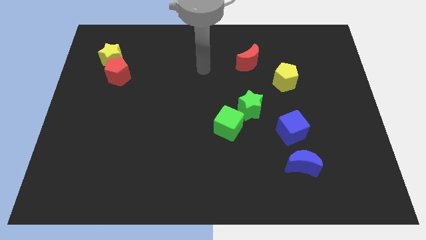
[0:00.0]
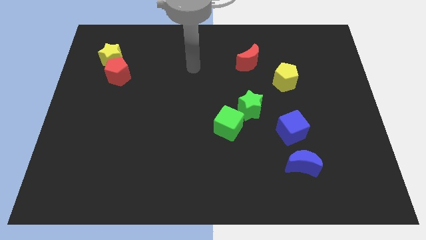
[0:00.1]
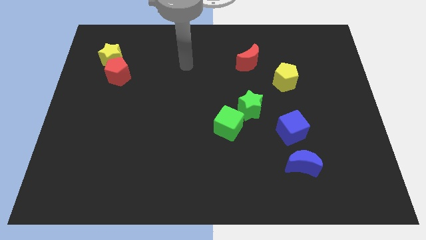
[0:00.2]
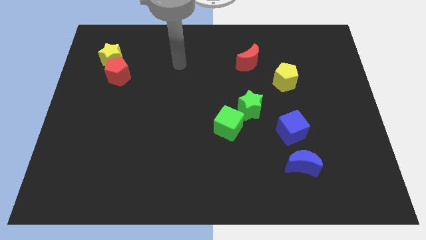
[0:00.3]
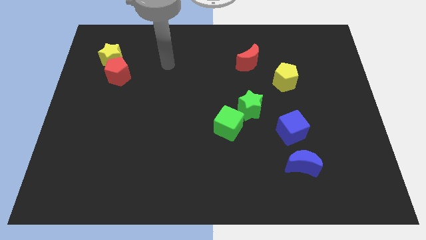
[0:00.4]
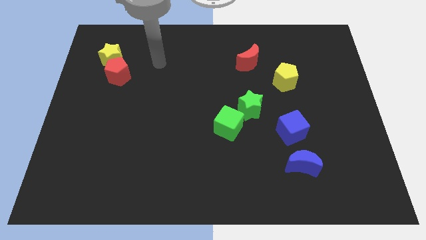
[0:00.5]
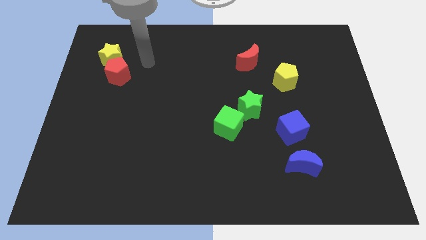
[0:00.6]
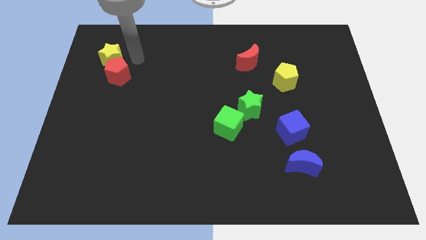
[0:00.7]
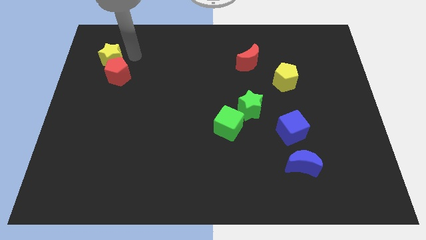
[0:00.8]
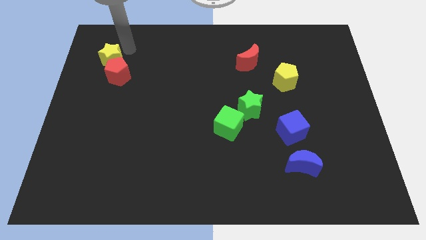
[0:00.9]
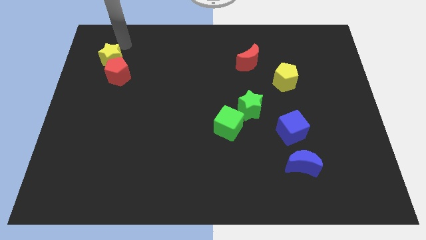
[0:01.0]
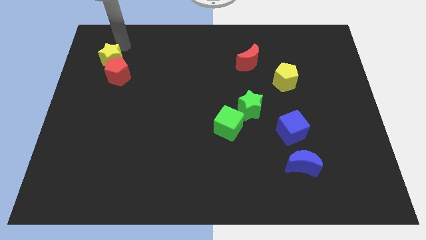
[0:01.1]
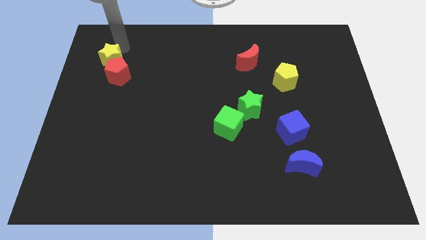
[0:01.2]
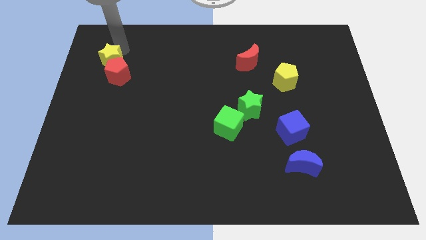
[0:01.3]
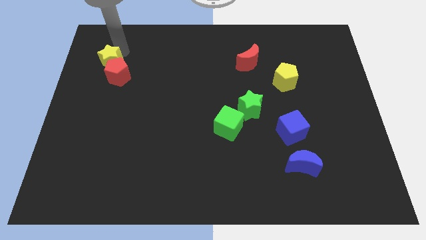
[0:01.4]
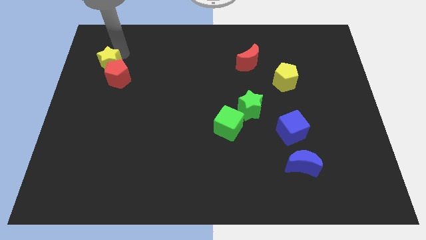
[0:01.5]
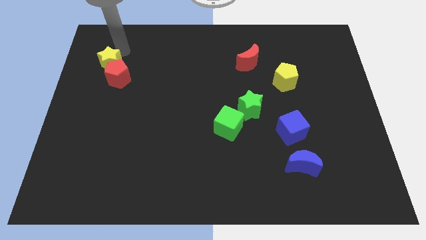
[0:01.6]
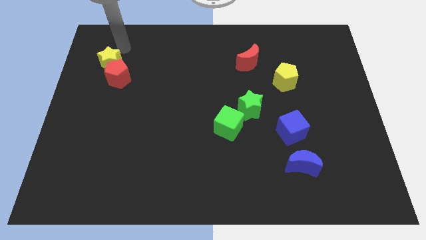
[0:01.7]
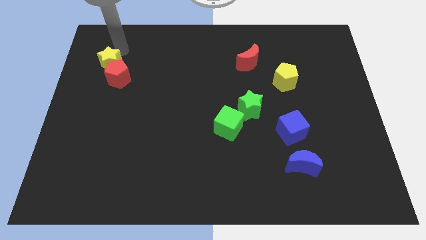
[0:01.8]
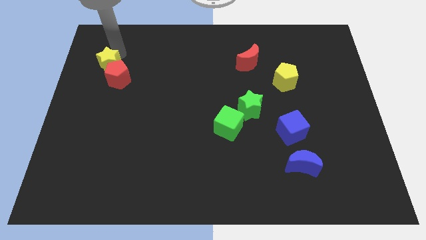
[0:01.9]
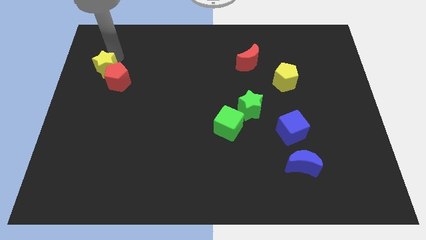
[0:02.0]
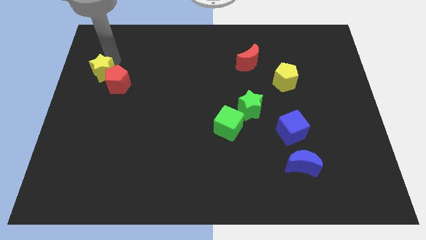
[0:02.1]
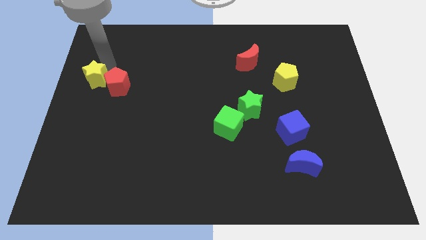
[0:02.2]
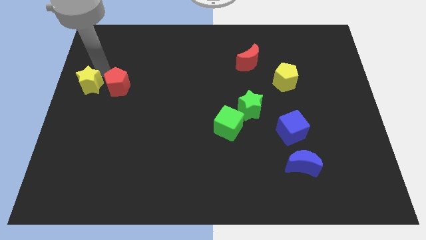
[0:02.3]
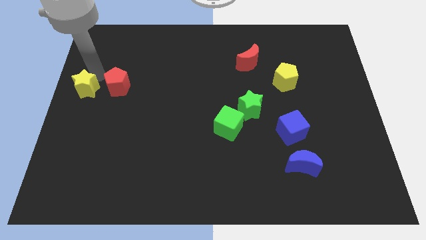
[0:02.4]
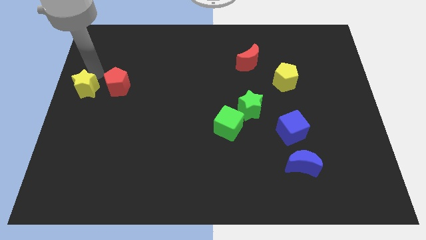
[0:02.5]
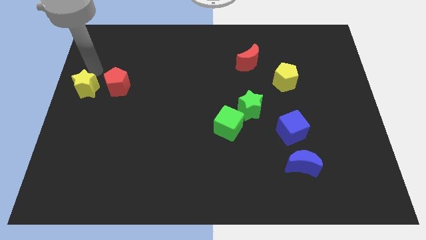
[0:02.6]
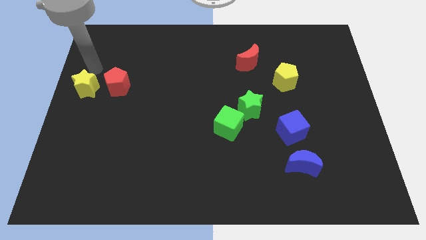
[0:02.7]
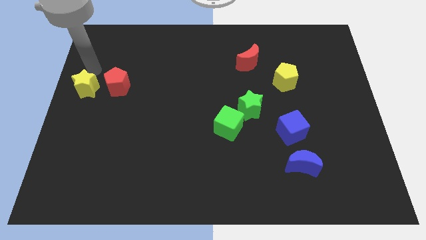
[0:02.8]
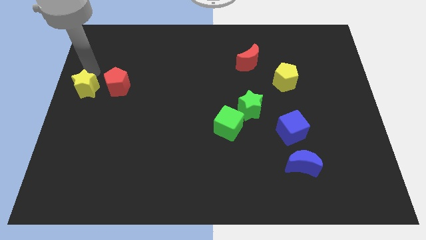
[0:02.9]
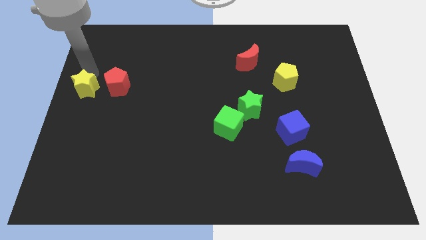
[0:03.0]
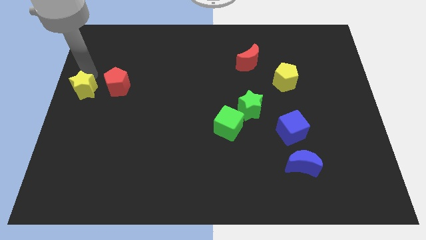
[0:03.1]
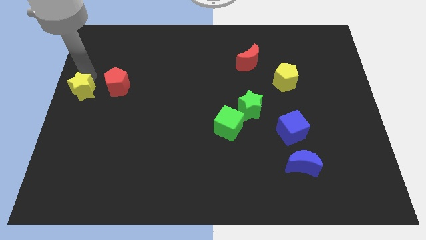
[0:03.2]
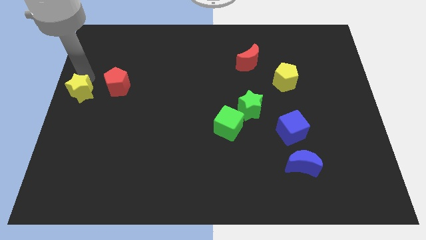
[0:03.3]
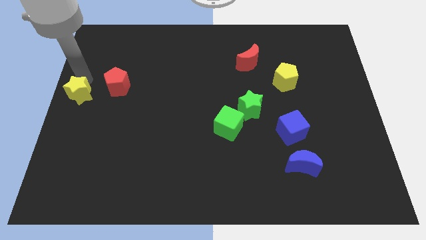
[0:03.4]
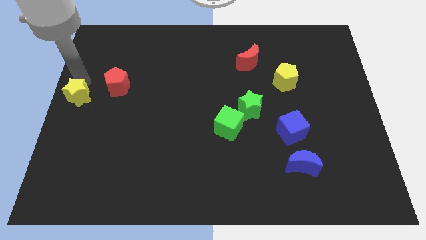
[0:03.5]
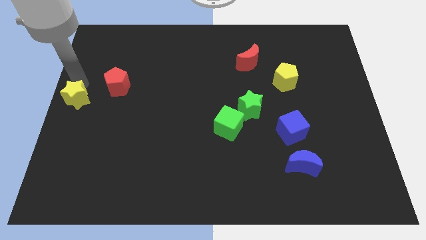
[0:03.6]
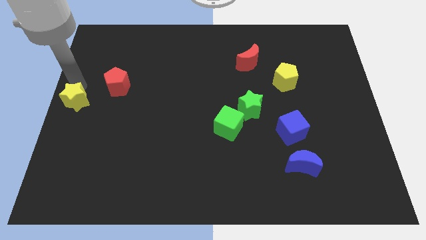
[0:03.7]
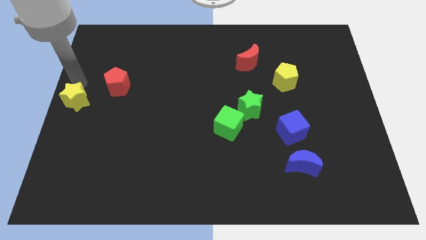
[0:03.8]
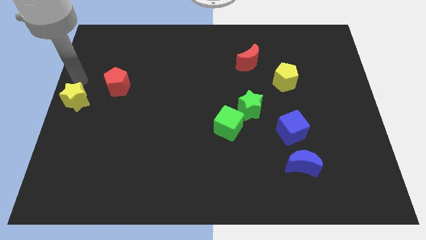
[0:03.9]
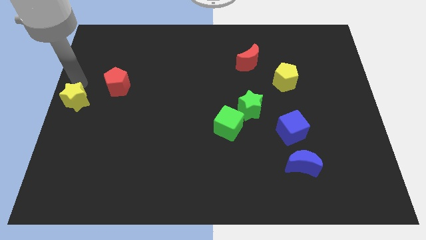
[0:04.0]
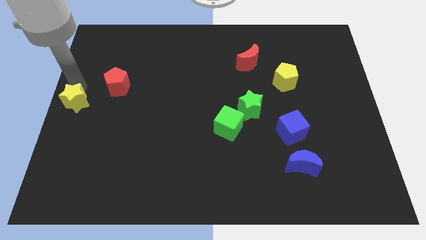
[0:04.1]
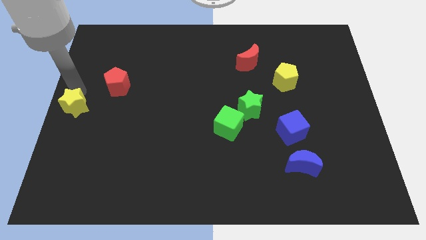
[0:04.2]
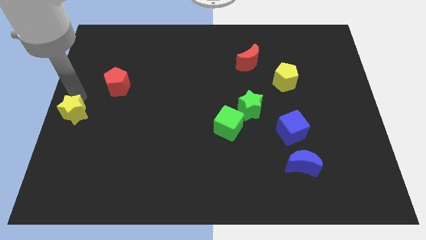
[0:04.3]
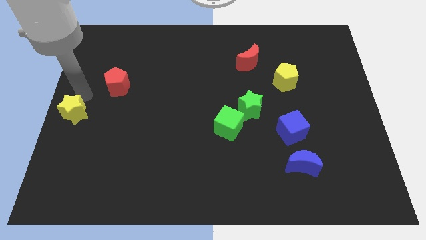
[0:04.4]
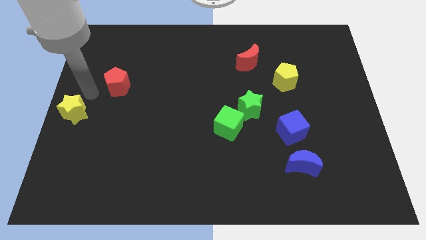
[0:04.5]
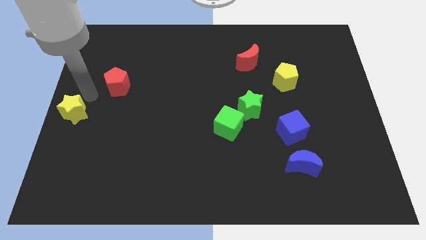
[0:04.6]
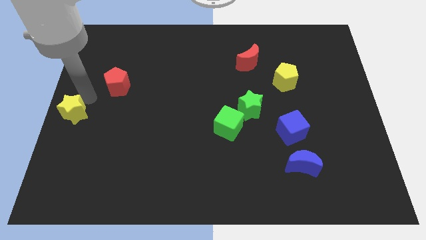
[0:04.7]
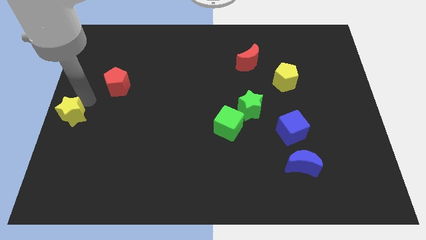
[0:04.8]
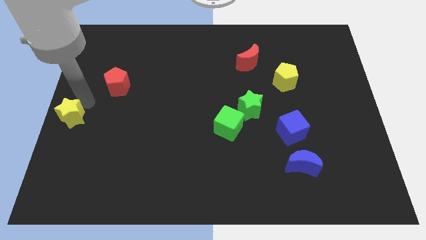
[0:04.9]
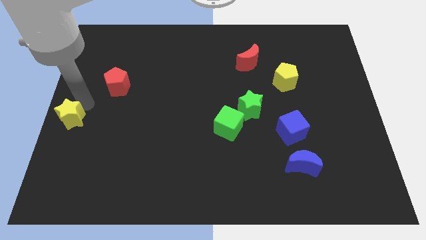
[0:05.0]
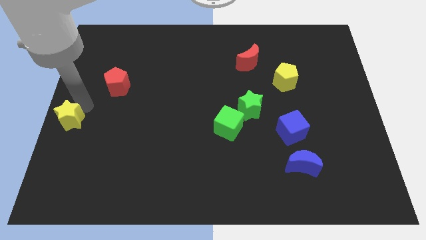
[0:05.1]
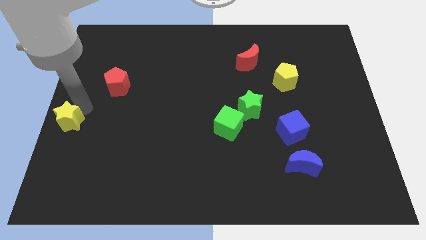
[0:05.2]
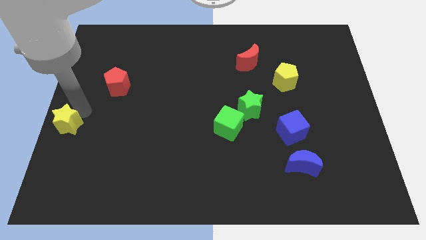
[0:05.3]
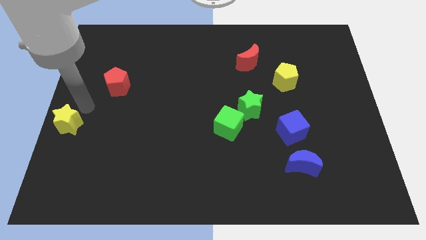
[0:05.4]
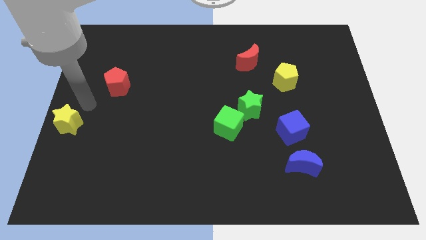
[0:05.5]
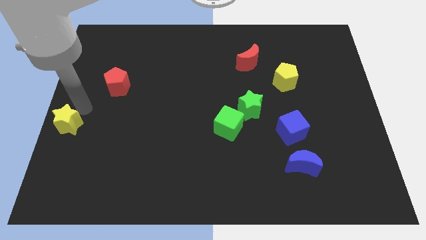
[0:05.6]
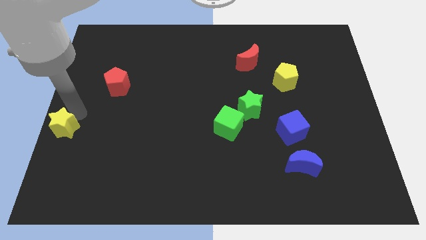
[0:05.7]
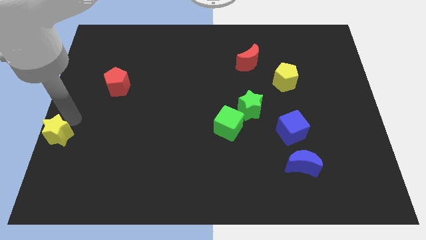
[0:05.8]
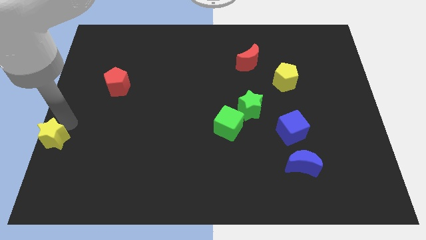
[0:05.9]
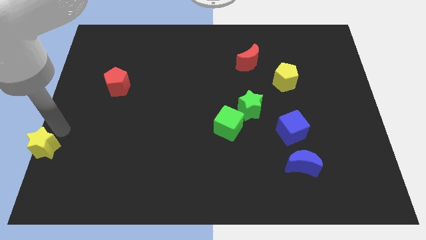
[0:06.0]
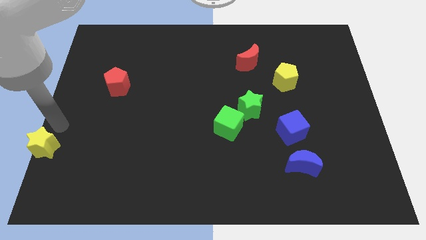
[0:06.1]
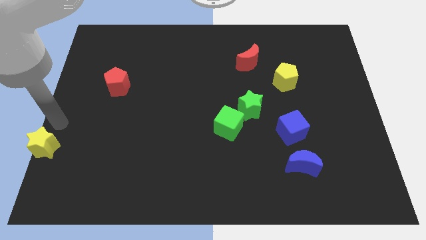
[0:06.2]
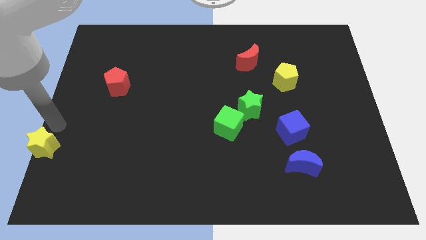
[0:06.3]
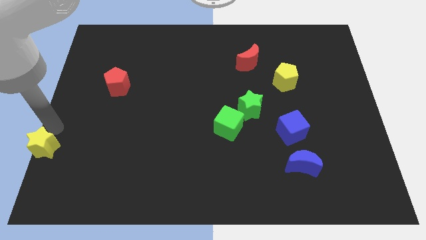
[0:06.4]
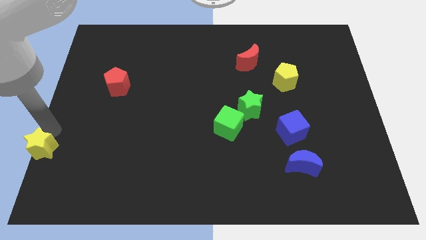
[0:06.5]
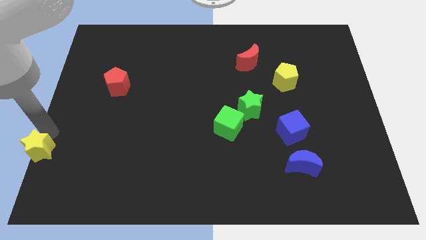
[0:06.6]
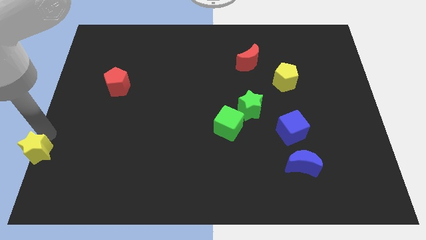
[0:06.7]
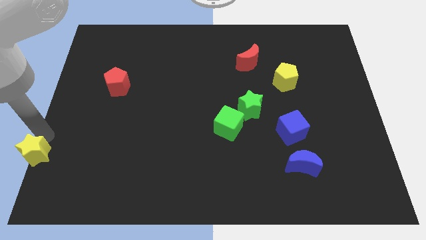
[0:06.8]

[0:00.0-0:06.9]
move the yellow star to the bottom left corner

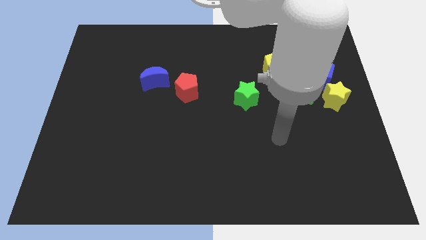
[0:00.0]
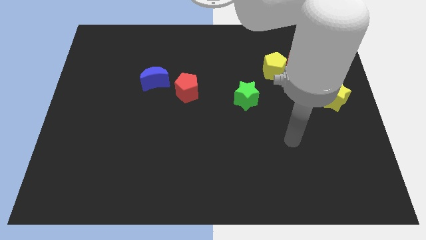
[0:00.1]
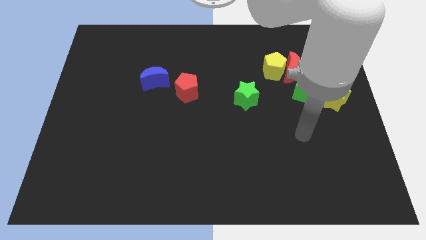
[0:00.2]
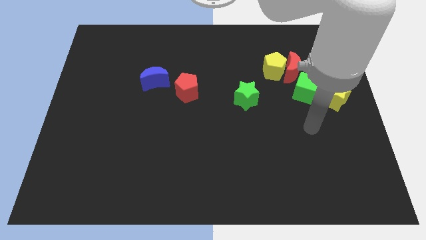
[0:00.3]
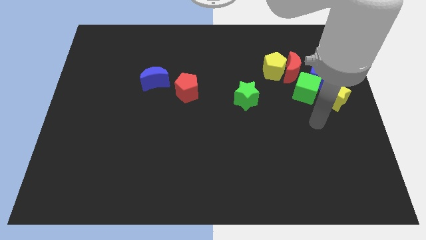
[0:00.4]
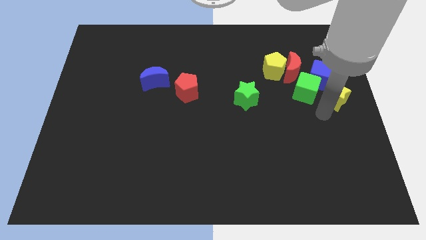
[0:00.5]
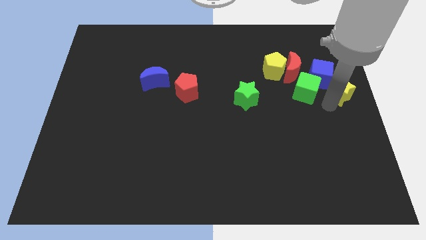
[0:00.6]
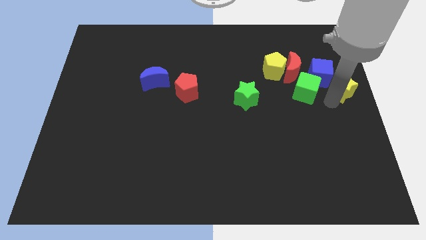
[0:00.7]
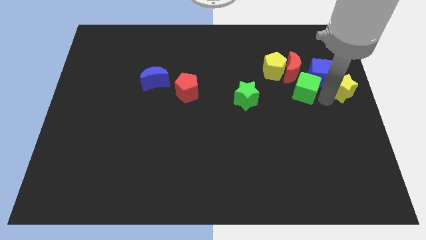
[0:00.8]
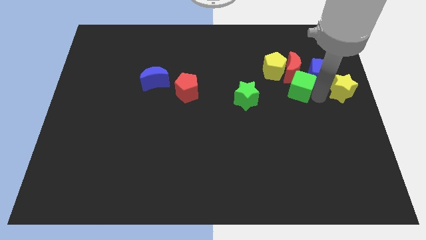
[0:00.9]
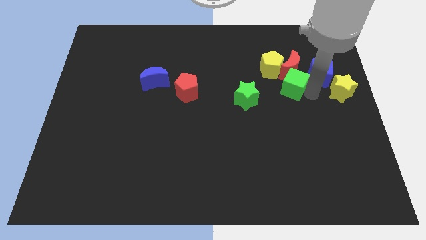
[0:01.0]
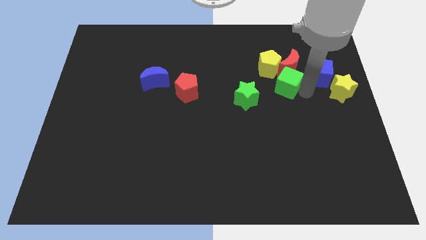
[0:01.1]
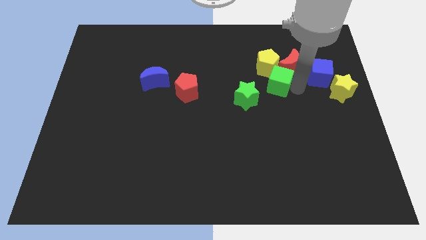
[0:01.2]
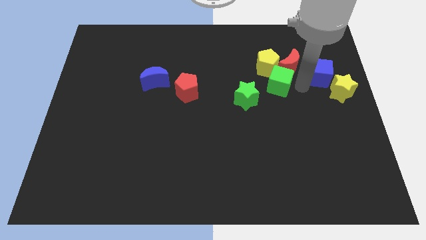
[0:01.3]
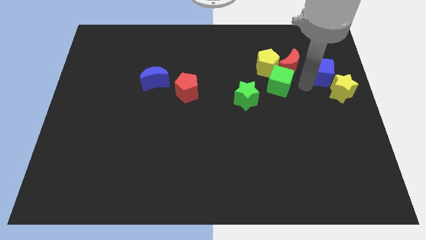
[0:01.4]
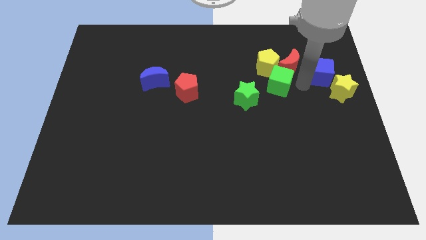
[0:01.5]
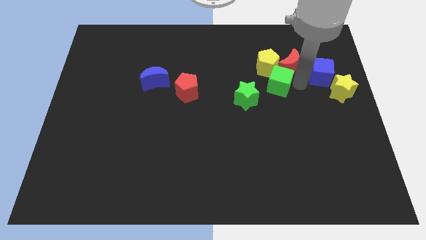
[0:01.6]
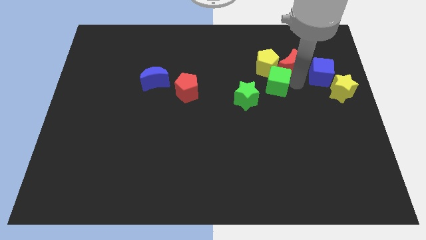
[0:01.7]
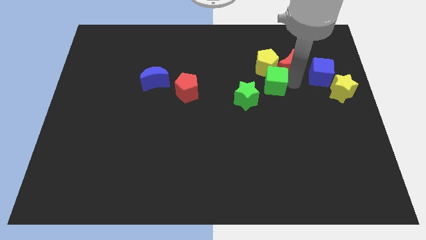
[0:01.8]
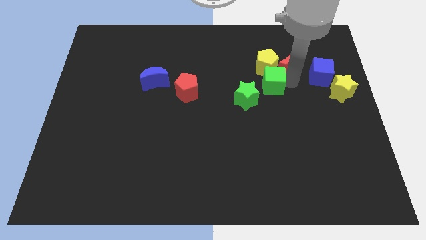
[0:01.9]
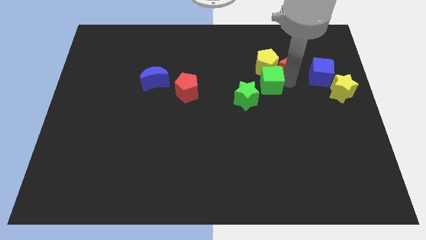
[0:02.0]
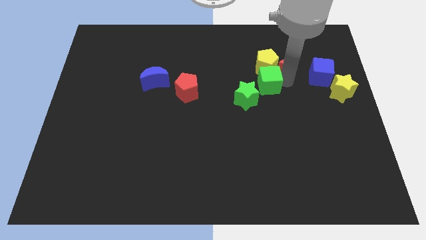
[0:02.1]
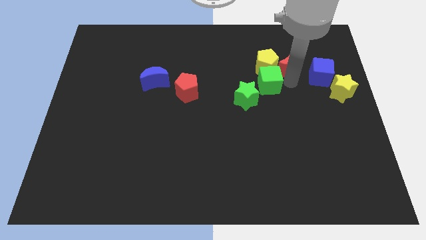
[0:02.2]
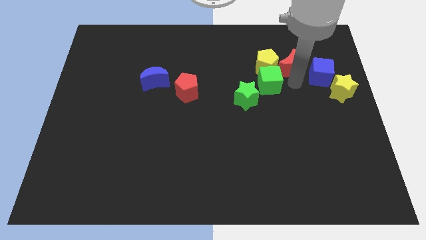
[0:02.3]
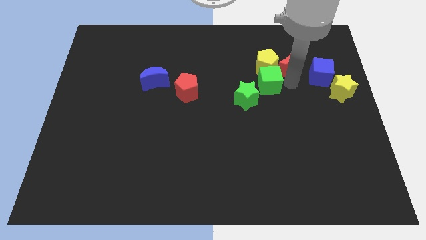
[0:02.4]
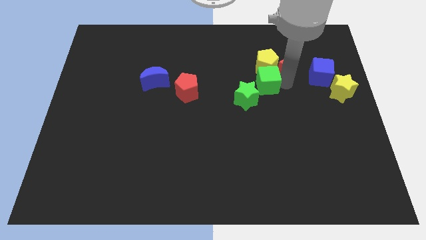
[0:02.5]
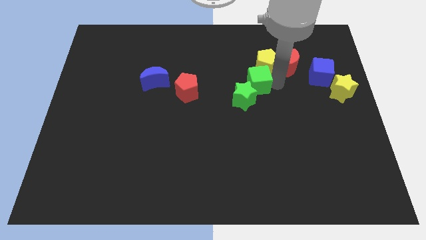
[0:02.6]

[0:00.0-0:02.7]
slide the green cube to the middle of the board
